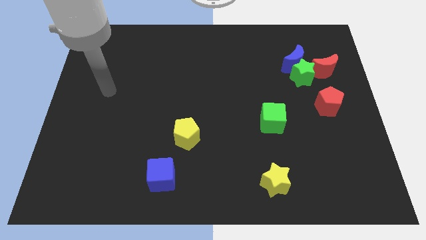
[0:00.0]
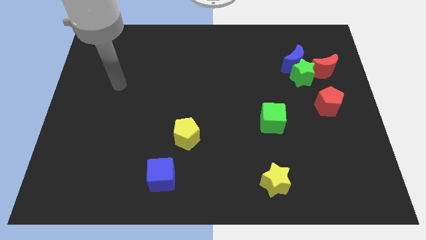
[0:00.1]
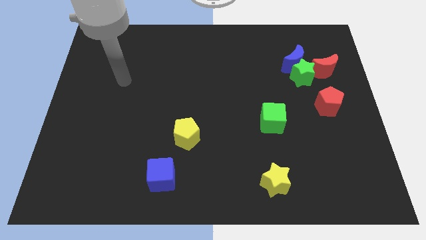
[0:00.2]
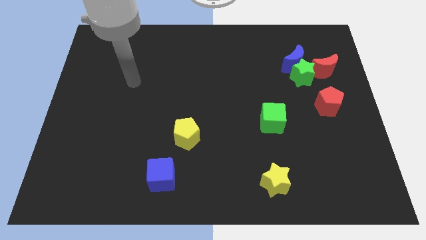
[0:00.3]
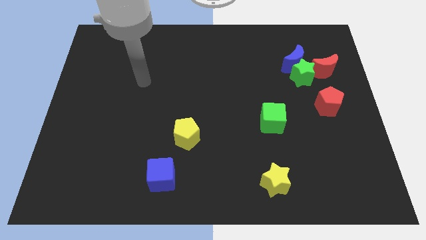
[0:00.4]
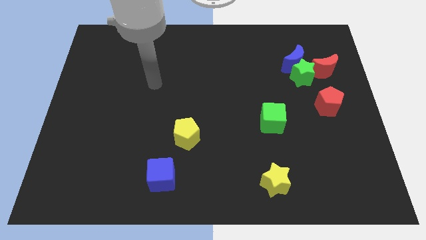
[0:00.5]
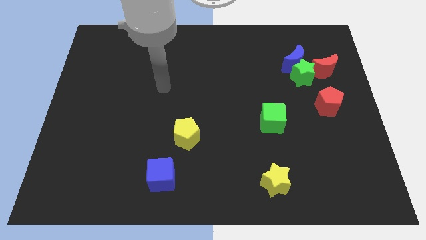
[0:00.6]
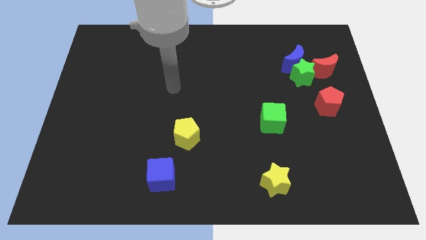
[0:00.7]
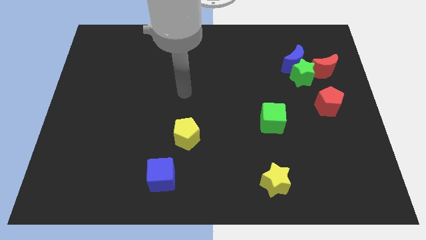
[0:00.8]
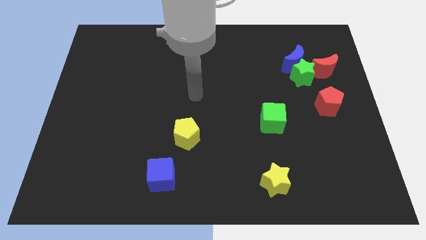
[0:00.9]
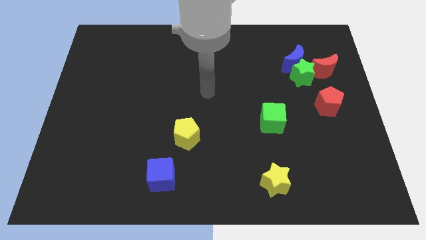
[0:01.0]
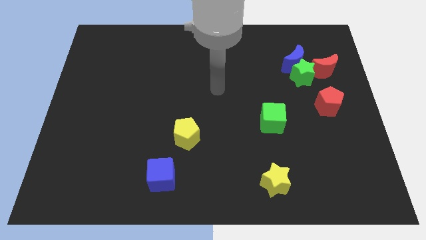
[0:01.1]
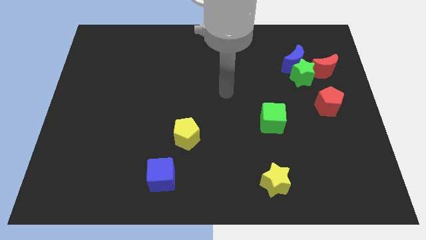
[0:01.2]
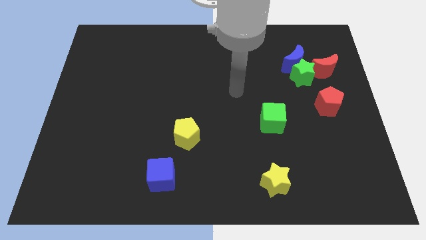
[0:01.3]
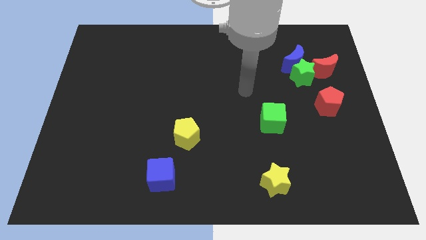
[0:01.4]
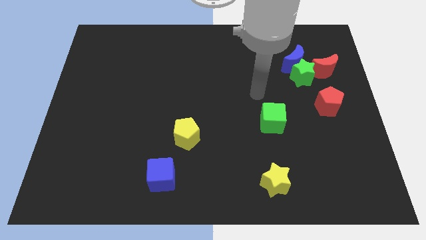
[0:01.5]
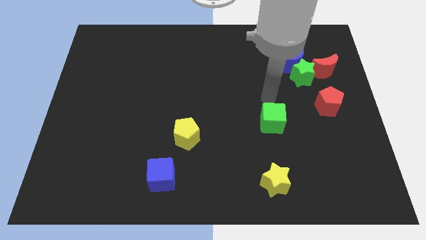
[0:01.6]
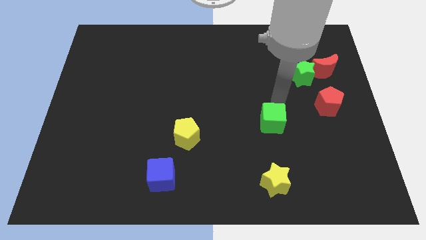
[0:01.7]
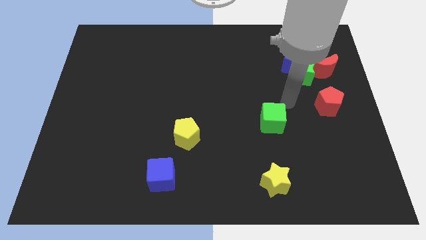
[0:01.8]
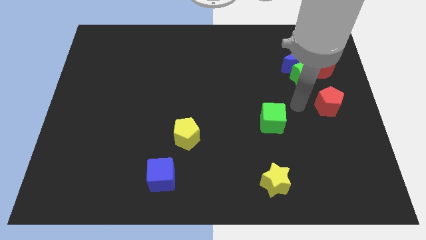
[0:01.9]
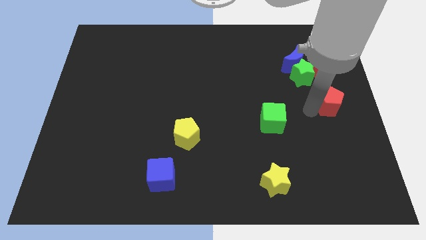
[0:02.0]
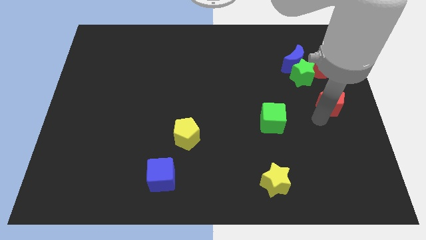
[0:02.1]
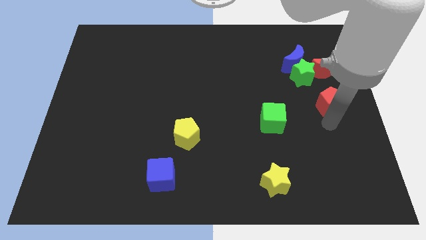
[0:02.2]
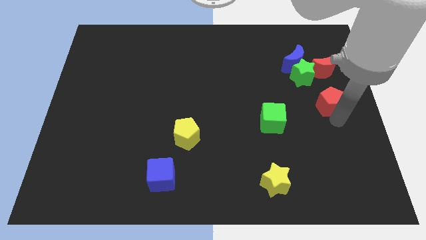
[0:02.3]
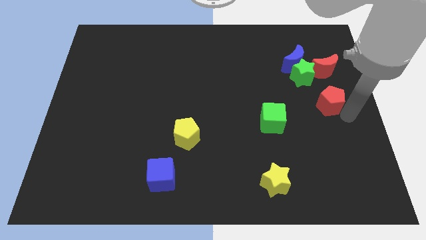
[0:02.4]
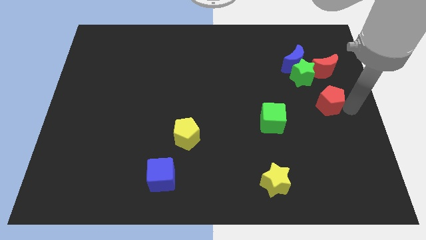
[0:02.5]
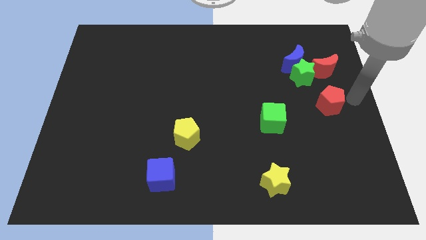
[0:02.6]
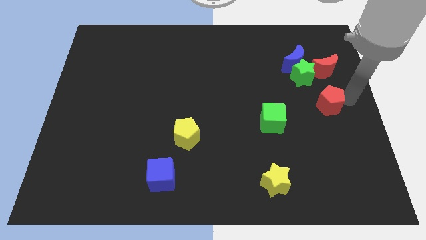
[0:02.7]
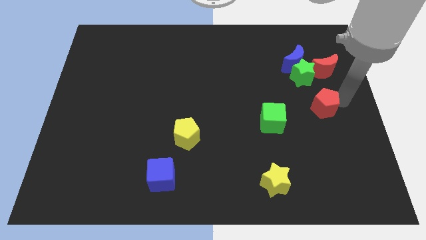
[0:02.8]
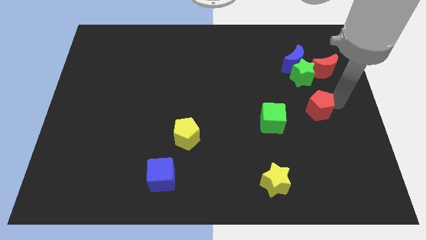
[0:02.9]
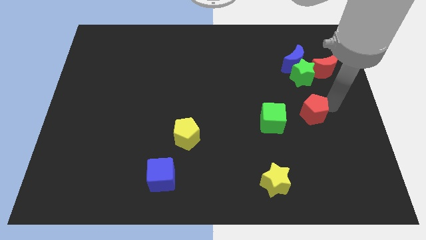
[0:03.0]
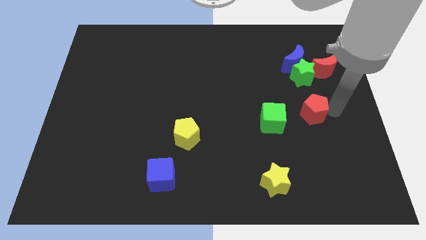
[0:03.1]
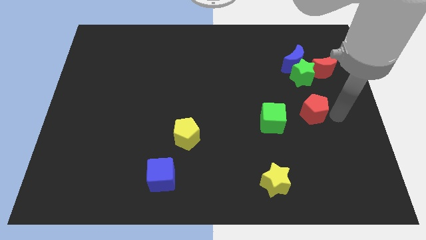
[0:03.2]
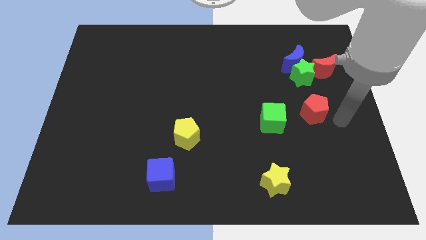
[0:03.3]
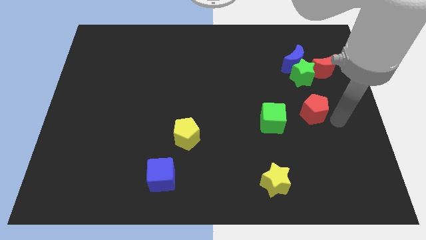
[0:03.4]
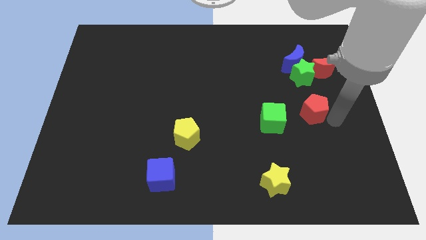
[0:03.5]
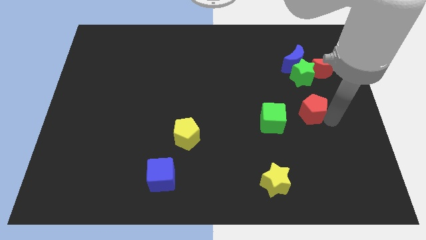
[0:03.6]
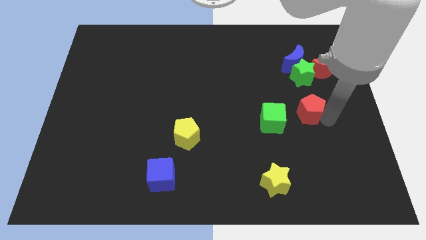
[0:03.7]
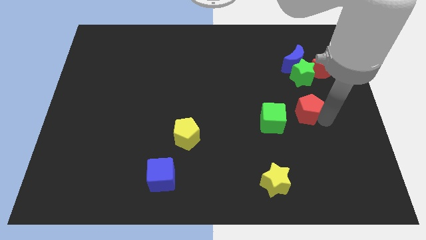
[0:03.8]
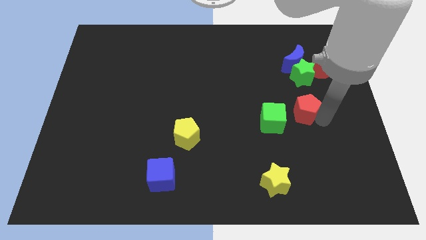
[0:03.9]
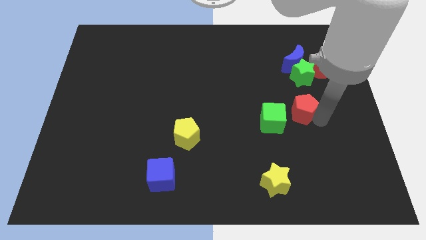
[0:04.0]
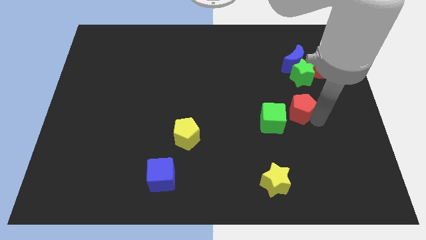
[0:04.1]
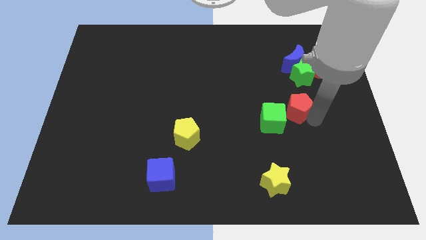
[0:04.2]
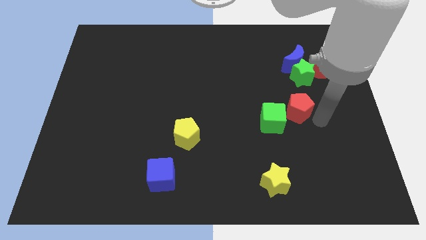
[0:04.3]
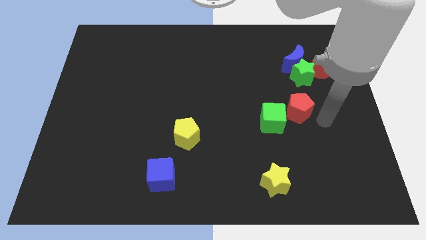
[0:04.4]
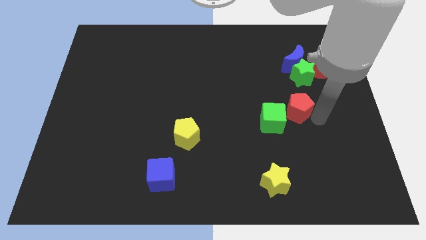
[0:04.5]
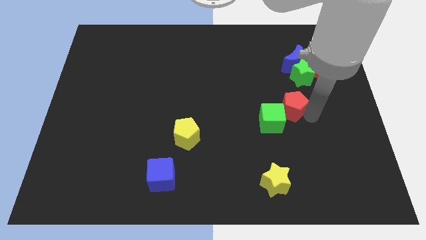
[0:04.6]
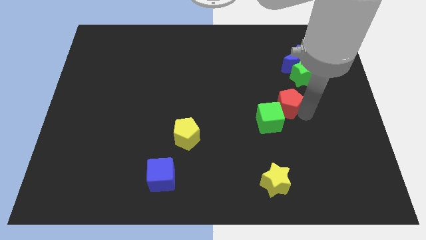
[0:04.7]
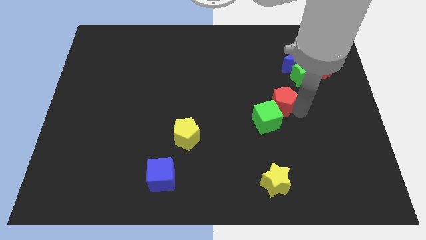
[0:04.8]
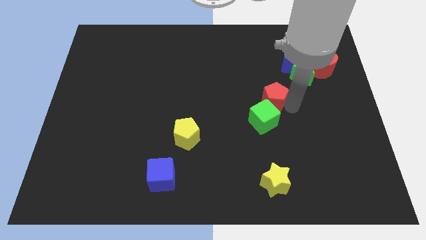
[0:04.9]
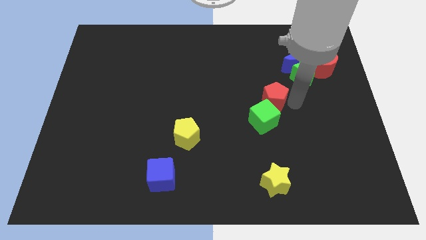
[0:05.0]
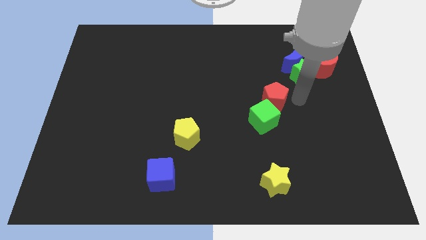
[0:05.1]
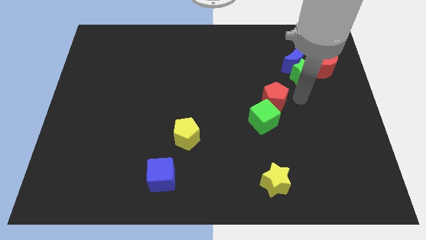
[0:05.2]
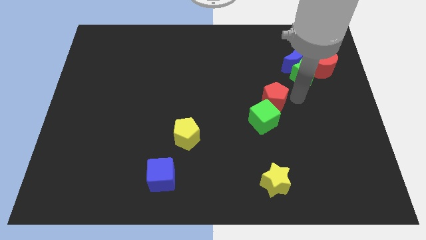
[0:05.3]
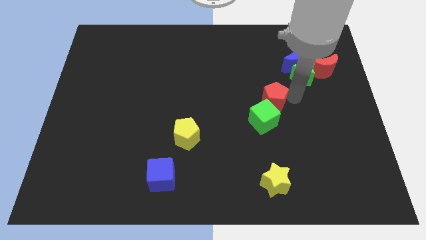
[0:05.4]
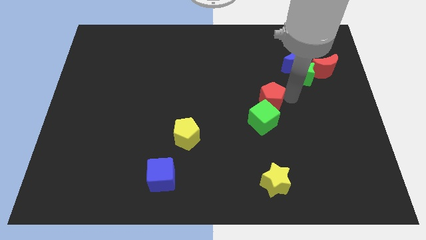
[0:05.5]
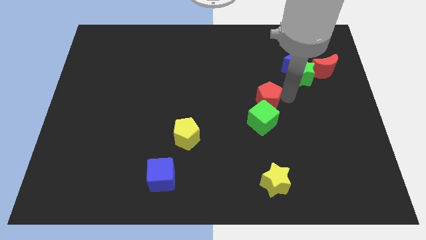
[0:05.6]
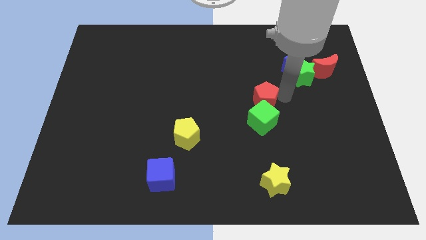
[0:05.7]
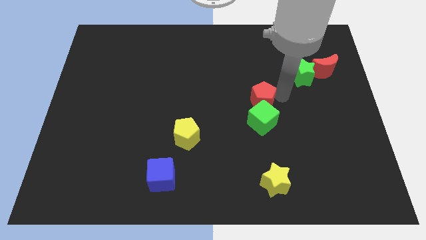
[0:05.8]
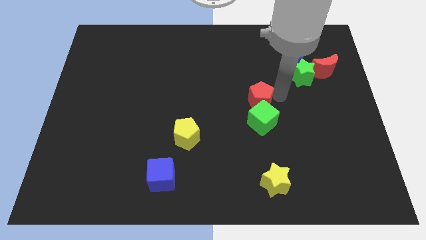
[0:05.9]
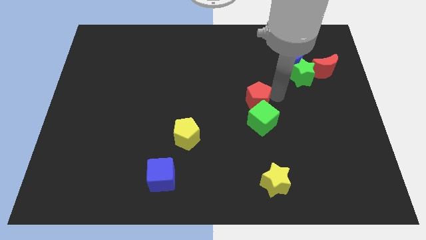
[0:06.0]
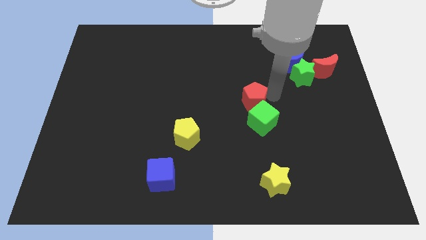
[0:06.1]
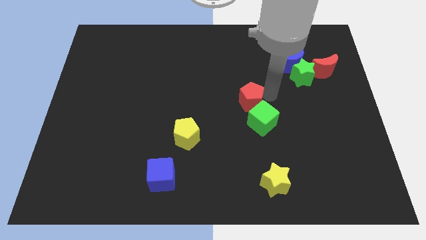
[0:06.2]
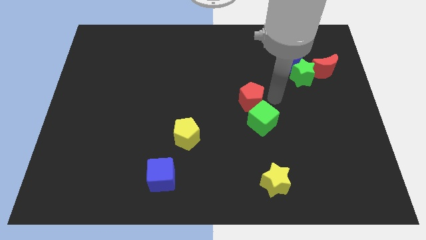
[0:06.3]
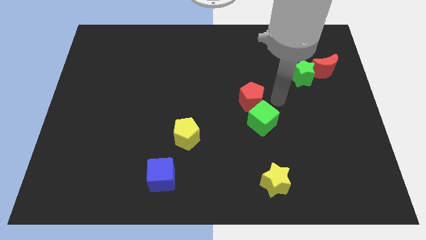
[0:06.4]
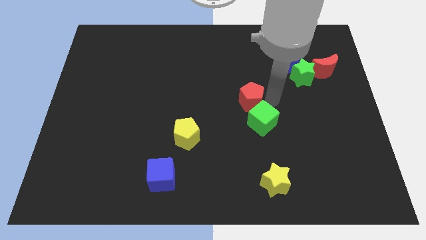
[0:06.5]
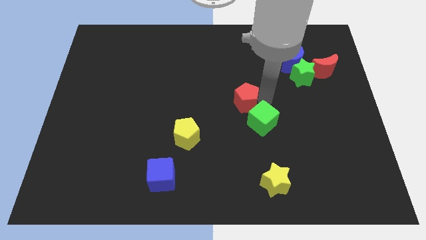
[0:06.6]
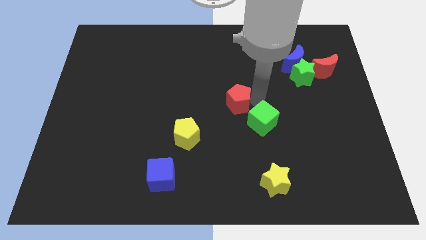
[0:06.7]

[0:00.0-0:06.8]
slide the red pentagon left

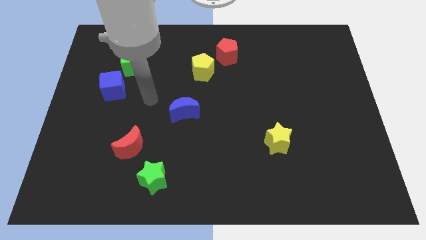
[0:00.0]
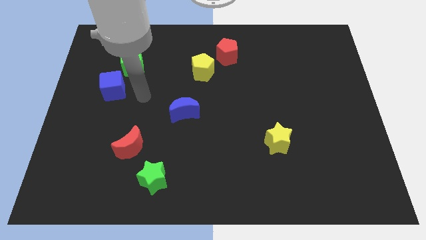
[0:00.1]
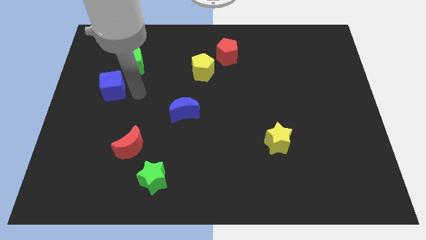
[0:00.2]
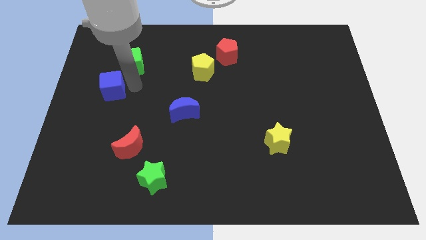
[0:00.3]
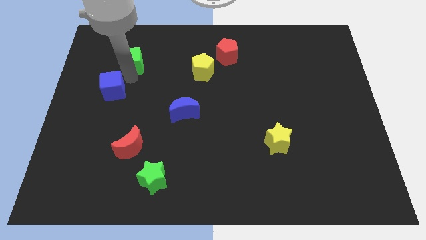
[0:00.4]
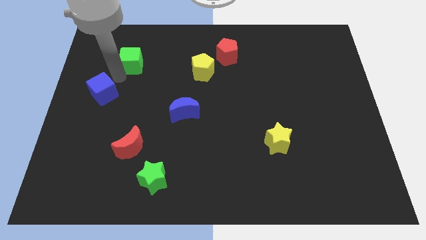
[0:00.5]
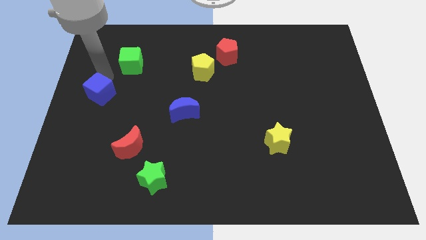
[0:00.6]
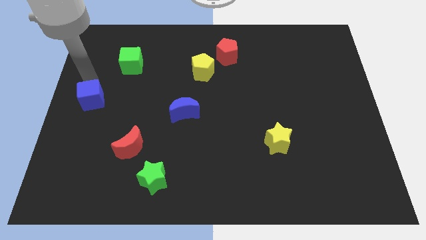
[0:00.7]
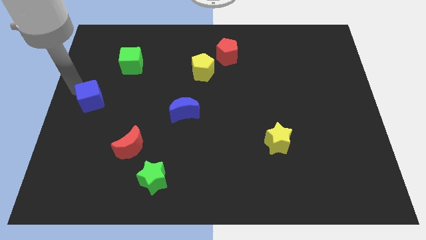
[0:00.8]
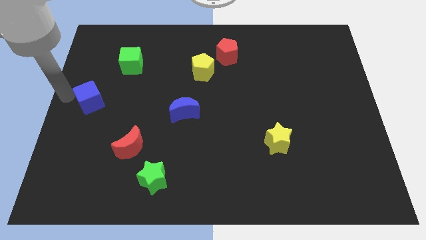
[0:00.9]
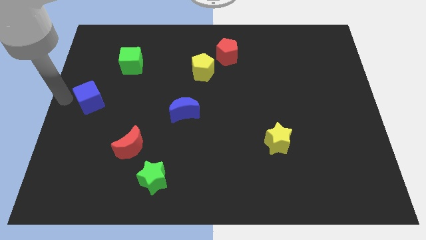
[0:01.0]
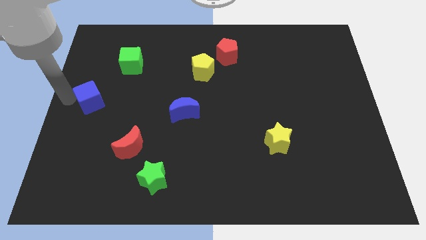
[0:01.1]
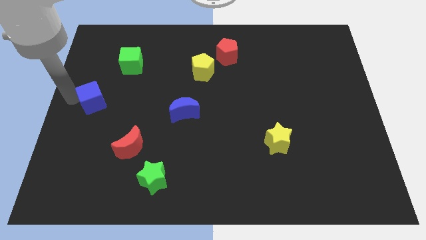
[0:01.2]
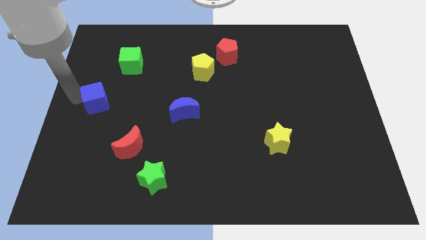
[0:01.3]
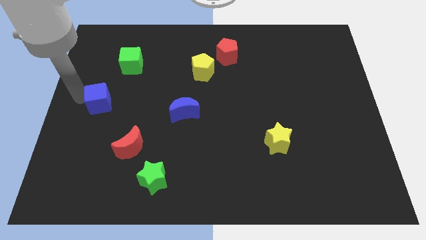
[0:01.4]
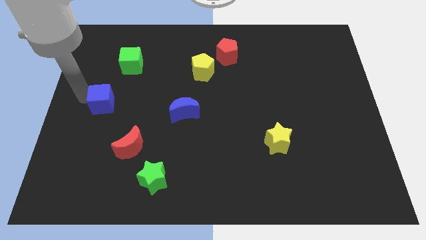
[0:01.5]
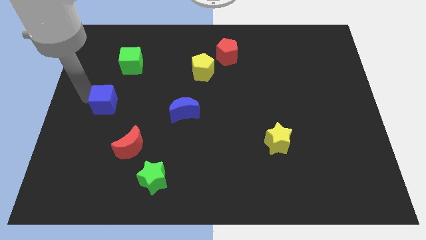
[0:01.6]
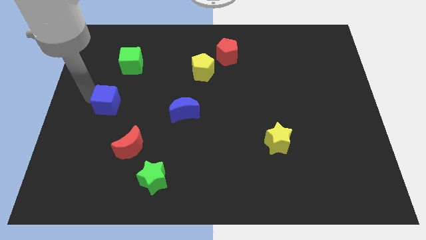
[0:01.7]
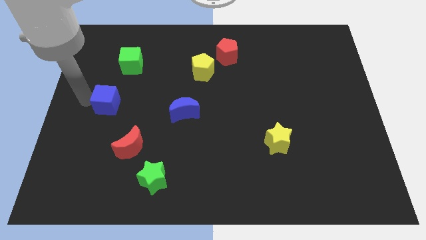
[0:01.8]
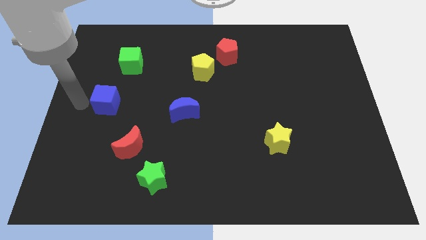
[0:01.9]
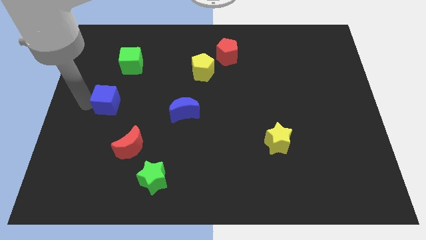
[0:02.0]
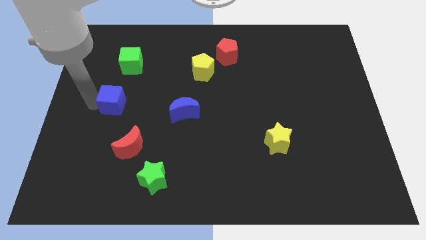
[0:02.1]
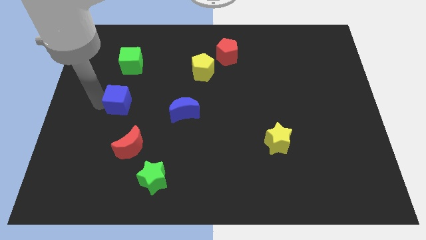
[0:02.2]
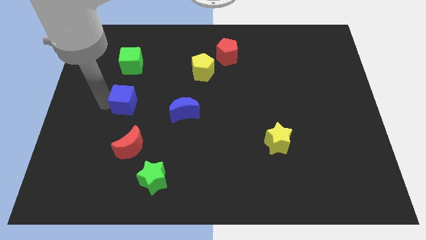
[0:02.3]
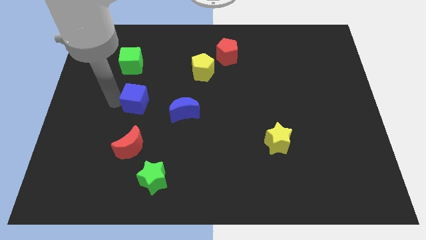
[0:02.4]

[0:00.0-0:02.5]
move the blue cube downwards and then to the right slightly
